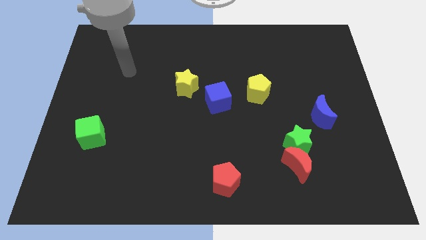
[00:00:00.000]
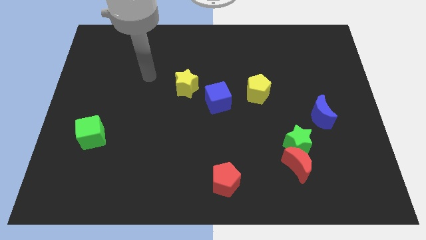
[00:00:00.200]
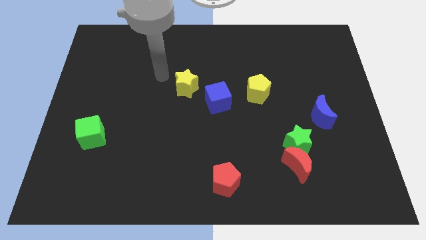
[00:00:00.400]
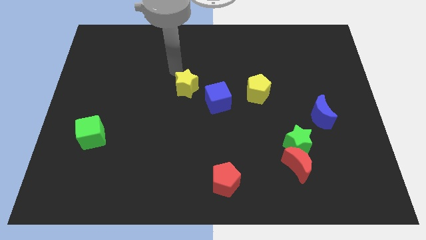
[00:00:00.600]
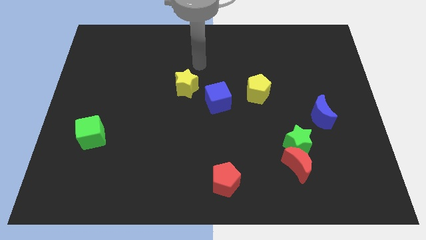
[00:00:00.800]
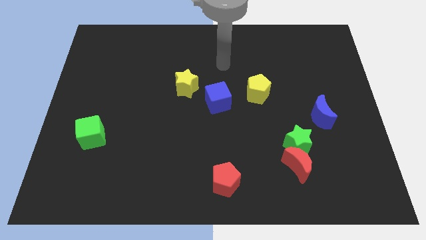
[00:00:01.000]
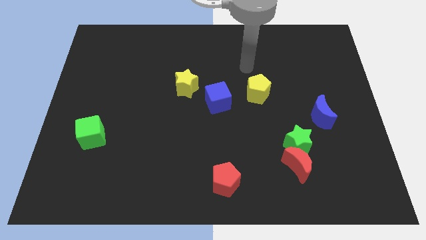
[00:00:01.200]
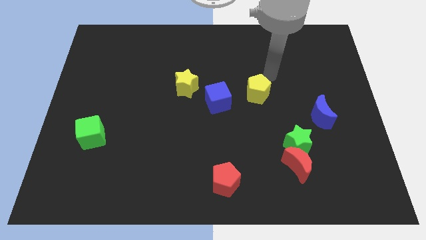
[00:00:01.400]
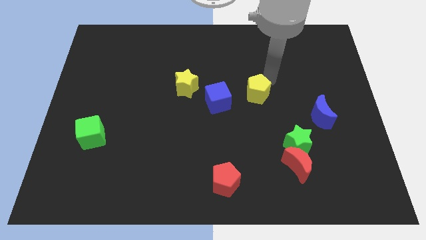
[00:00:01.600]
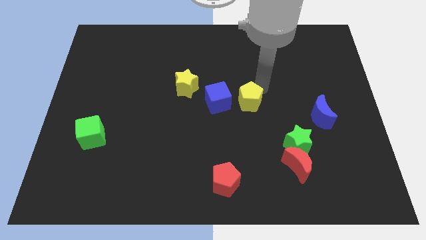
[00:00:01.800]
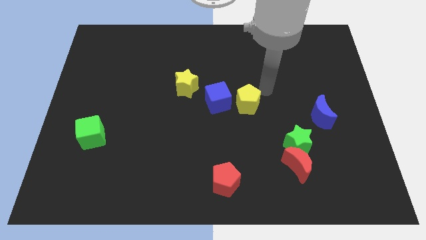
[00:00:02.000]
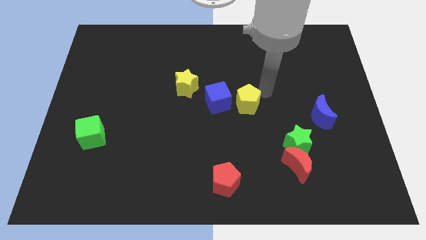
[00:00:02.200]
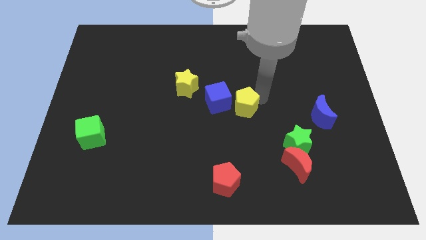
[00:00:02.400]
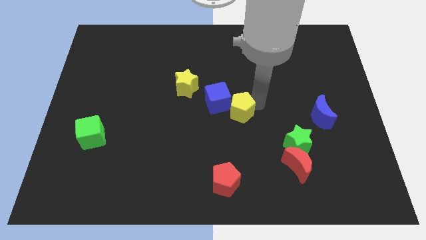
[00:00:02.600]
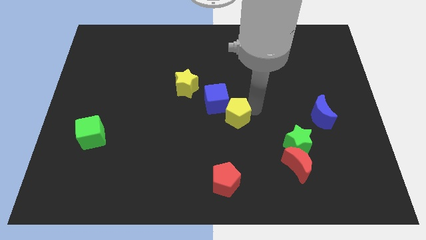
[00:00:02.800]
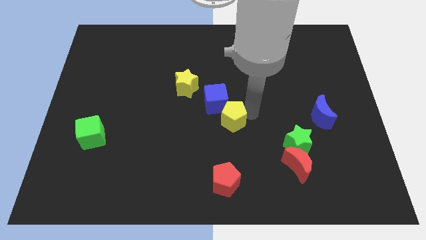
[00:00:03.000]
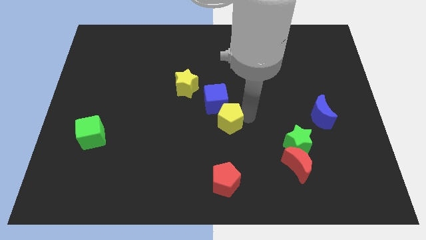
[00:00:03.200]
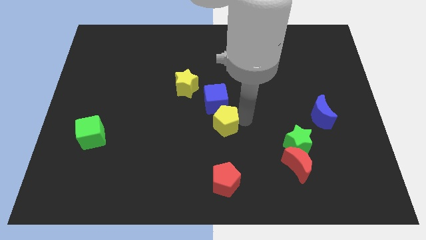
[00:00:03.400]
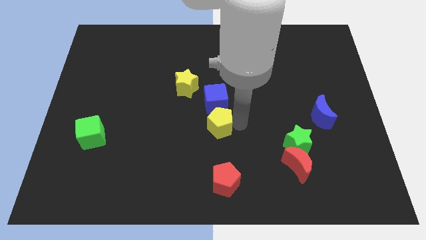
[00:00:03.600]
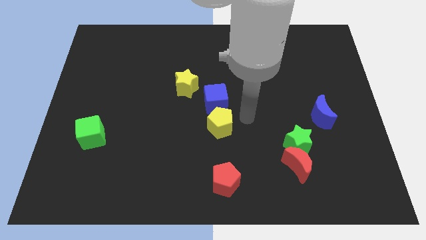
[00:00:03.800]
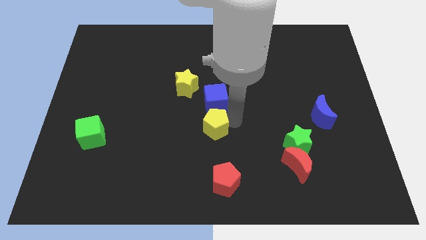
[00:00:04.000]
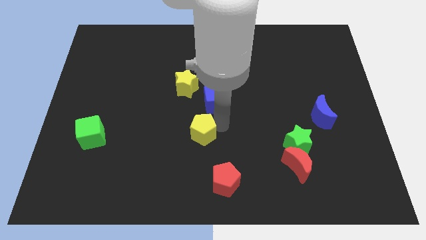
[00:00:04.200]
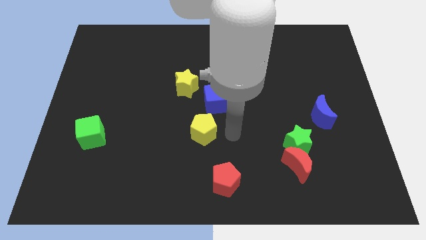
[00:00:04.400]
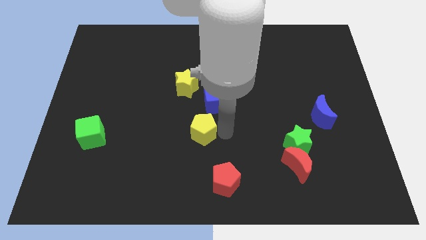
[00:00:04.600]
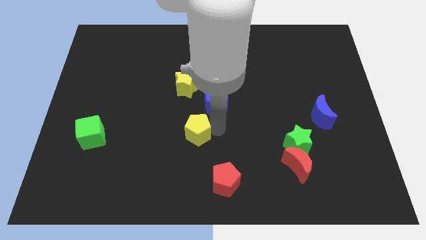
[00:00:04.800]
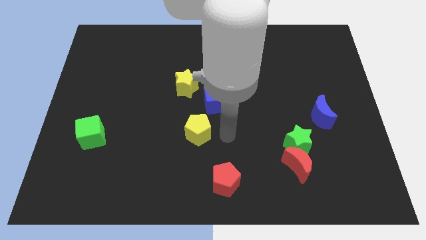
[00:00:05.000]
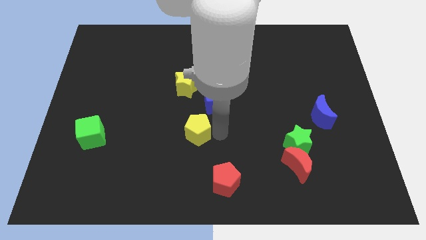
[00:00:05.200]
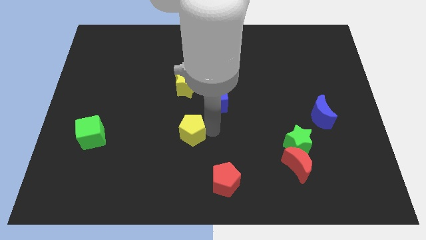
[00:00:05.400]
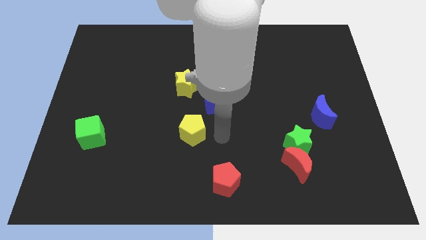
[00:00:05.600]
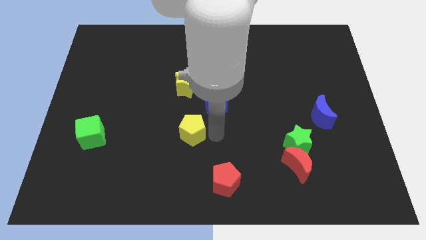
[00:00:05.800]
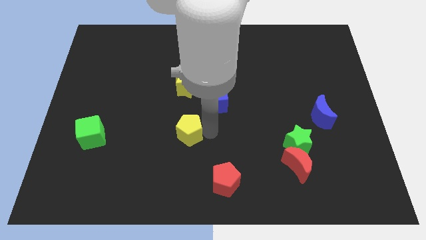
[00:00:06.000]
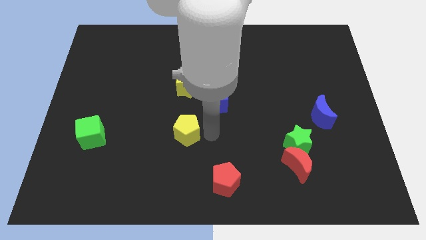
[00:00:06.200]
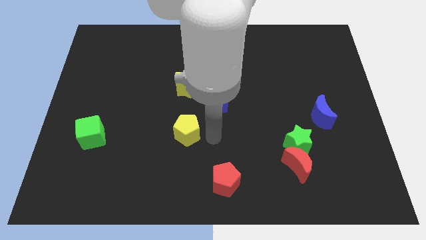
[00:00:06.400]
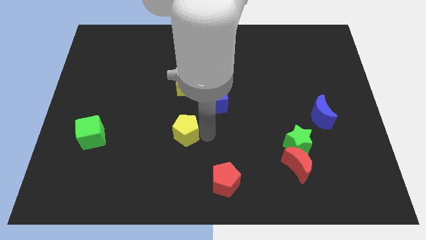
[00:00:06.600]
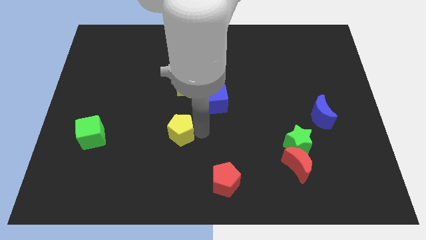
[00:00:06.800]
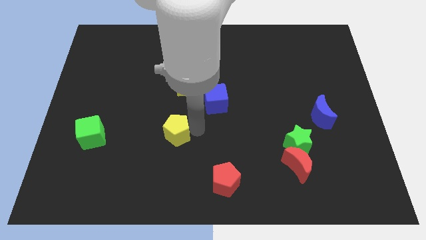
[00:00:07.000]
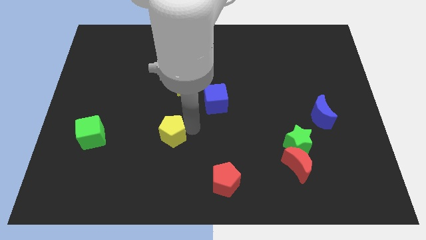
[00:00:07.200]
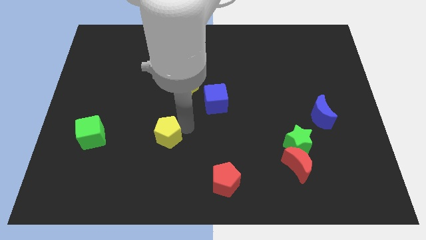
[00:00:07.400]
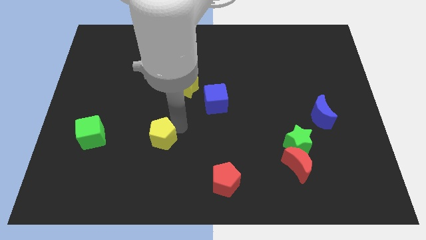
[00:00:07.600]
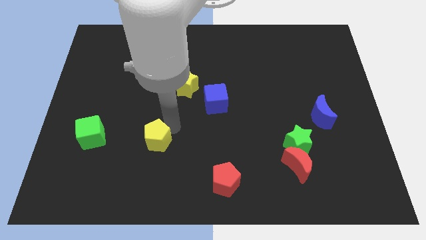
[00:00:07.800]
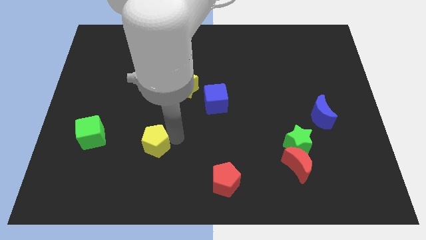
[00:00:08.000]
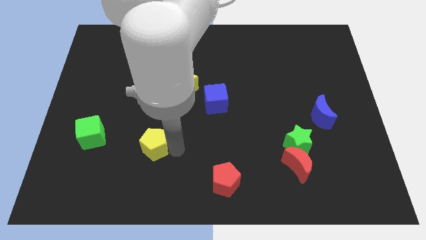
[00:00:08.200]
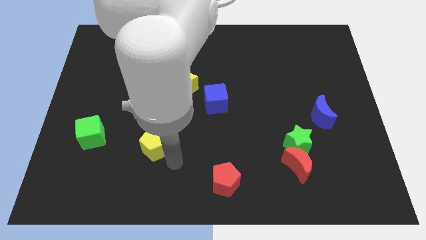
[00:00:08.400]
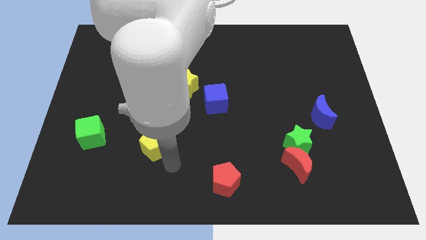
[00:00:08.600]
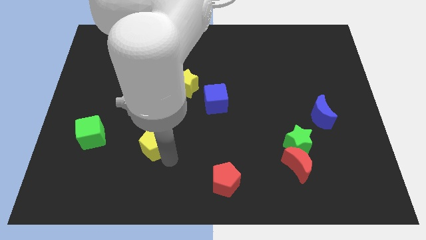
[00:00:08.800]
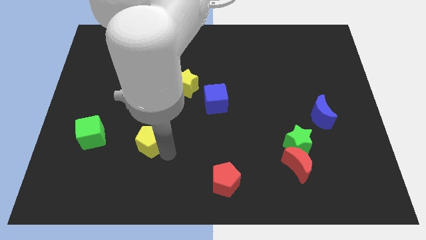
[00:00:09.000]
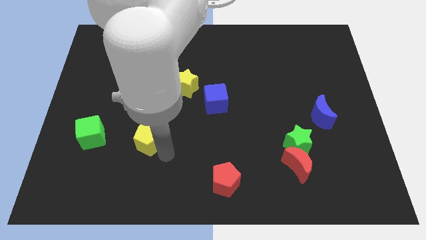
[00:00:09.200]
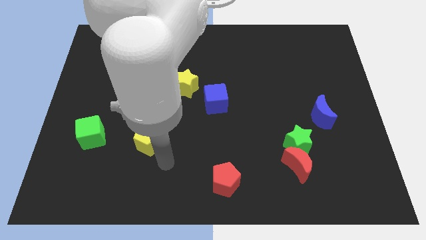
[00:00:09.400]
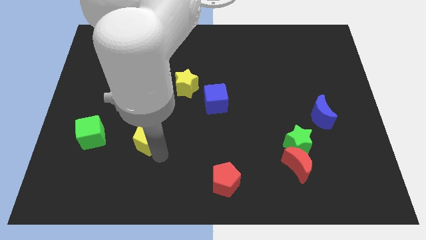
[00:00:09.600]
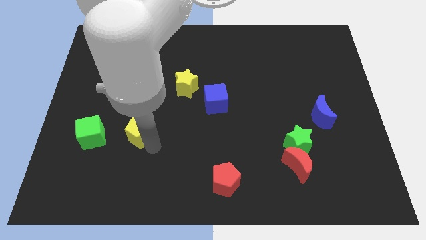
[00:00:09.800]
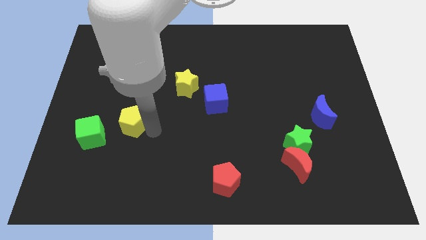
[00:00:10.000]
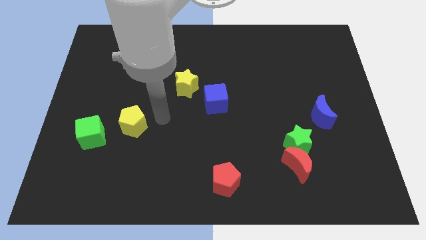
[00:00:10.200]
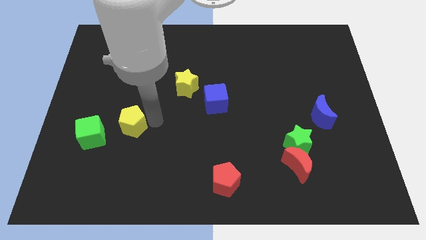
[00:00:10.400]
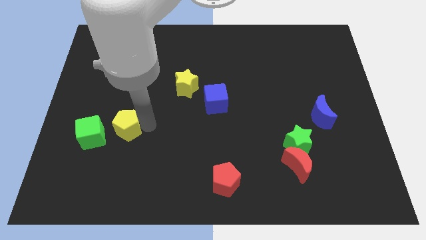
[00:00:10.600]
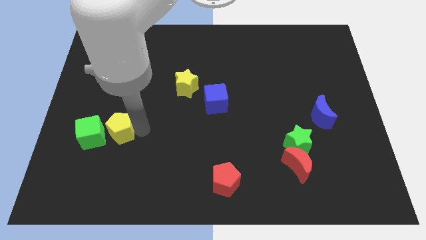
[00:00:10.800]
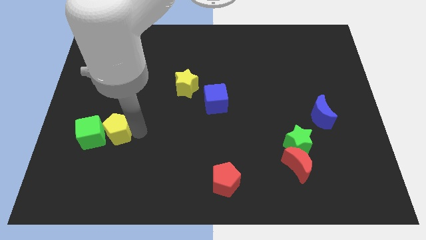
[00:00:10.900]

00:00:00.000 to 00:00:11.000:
push the yellow pentagon next to the green cube
